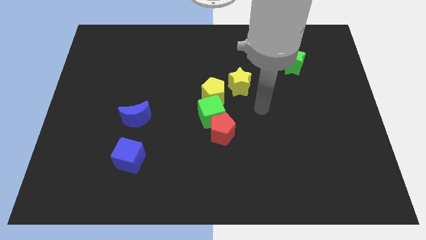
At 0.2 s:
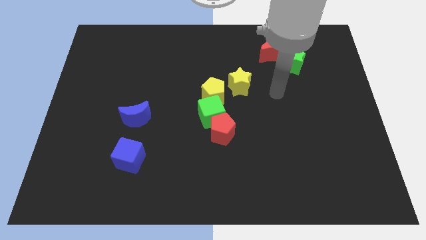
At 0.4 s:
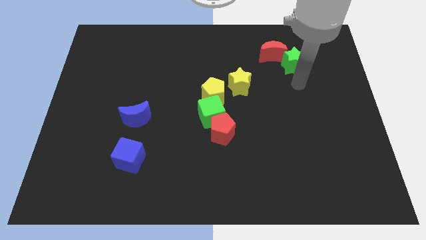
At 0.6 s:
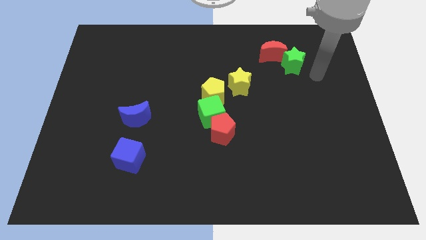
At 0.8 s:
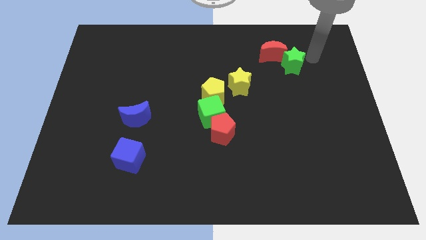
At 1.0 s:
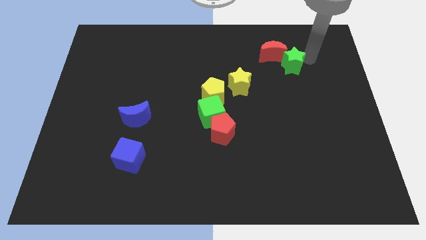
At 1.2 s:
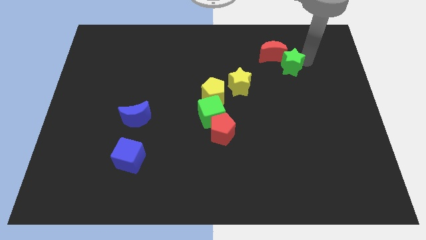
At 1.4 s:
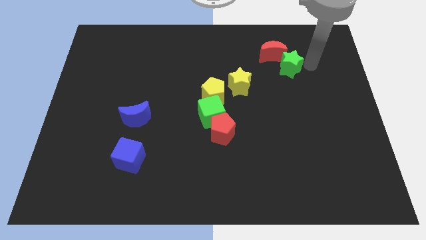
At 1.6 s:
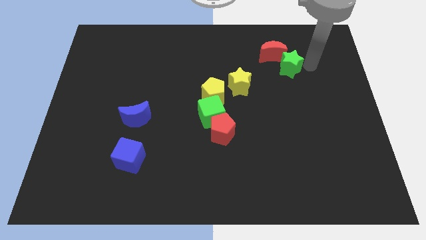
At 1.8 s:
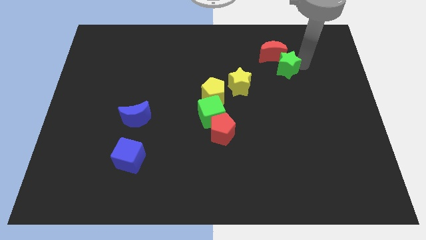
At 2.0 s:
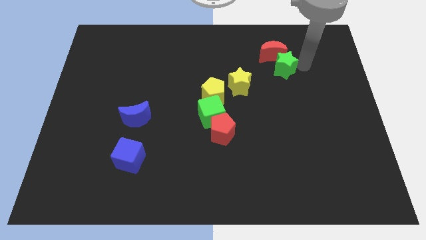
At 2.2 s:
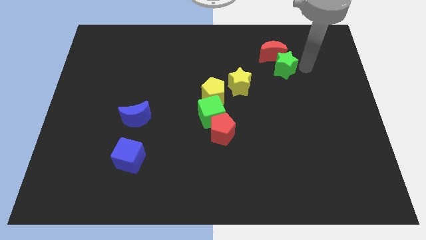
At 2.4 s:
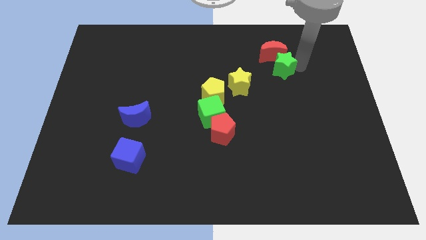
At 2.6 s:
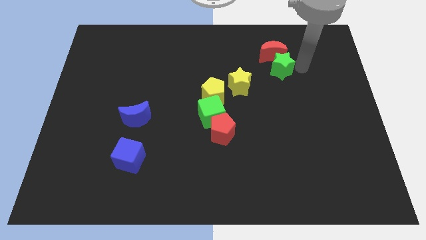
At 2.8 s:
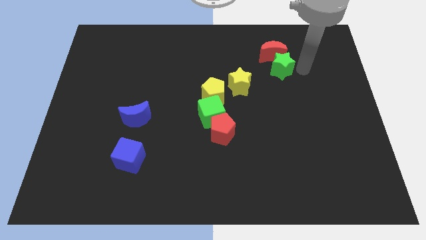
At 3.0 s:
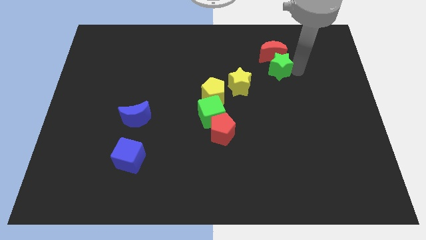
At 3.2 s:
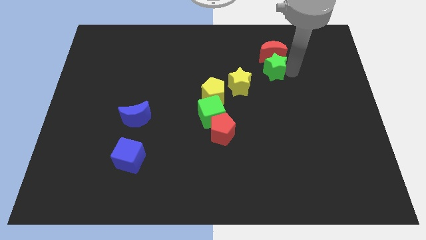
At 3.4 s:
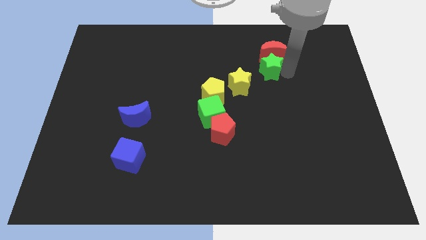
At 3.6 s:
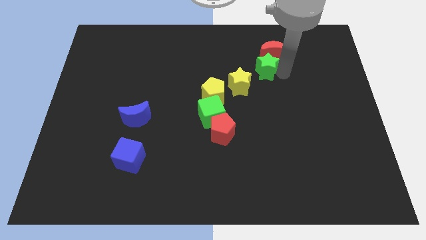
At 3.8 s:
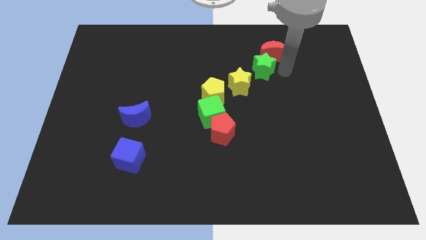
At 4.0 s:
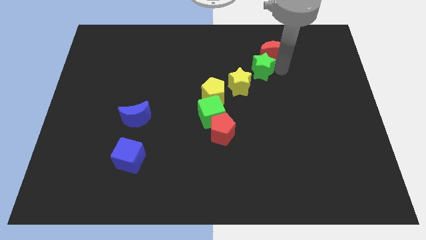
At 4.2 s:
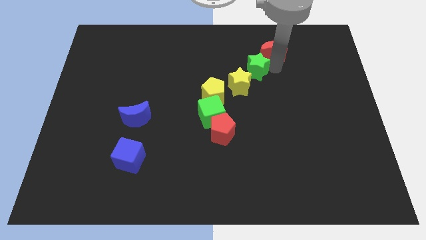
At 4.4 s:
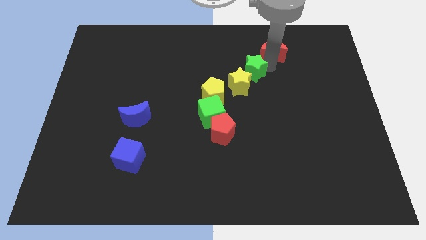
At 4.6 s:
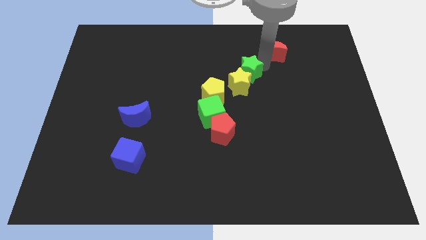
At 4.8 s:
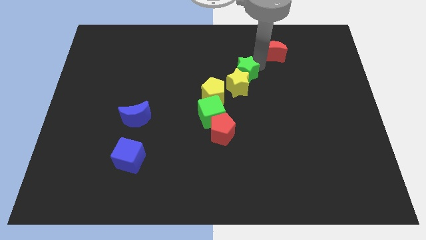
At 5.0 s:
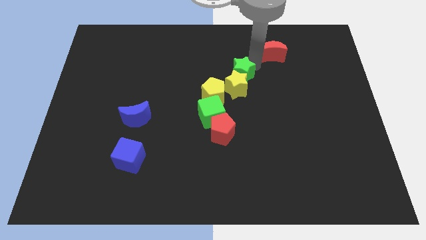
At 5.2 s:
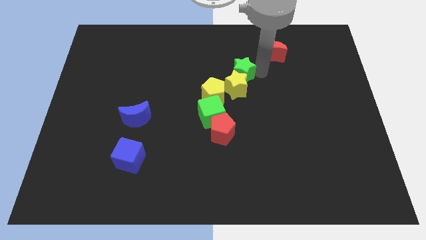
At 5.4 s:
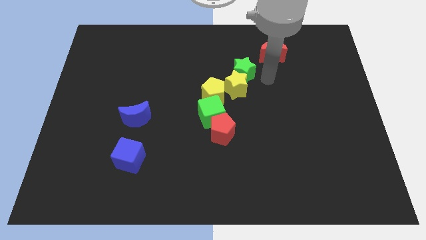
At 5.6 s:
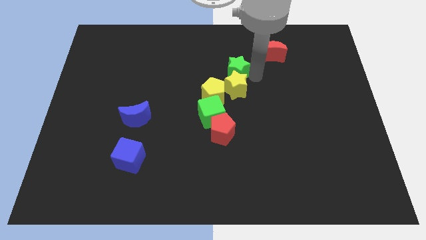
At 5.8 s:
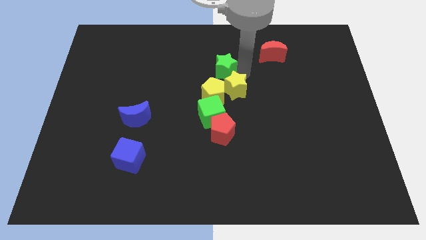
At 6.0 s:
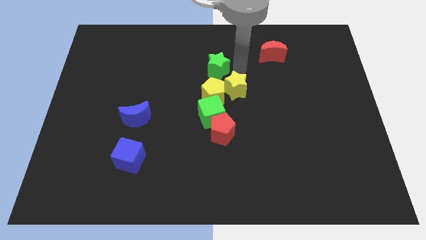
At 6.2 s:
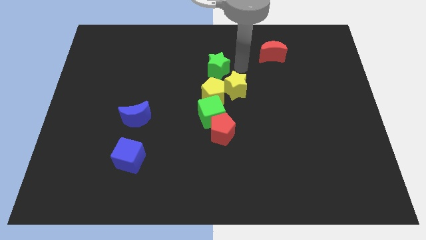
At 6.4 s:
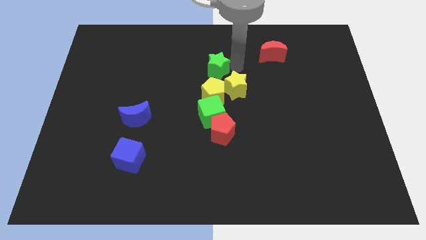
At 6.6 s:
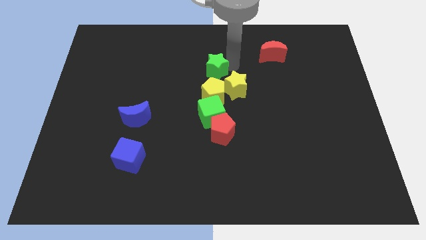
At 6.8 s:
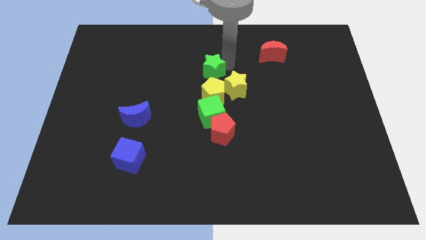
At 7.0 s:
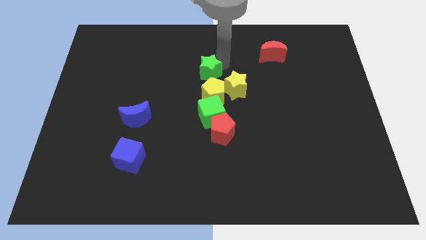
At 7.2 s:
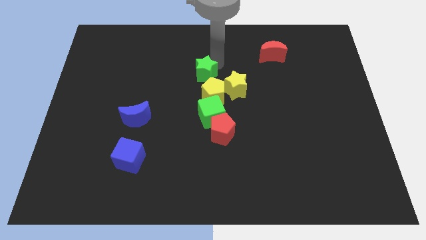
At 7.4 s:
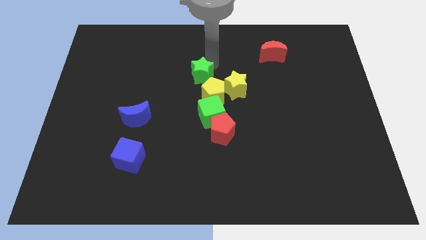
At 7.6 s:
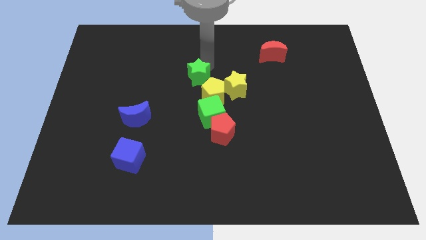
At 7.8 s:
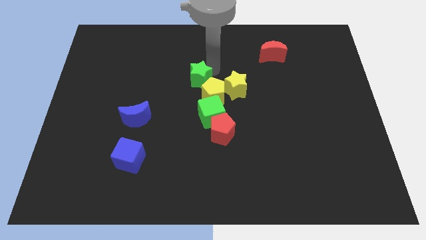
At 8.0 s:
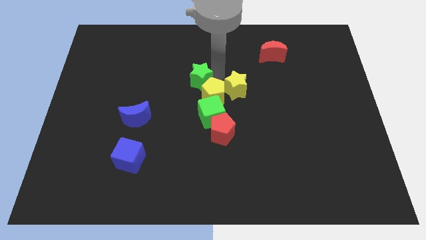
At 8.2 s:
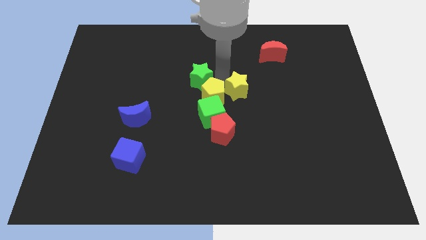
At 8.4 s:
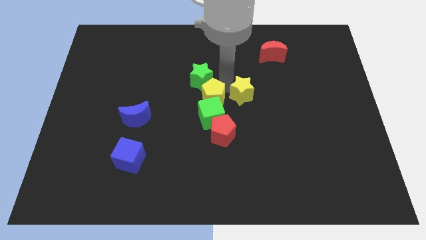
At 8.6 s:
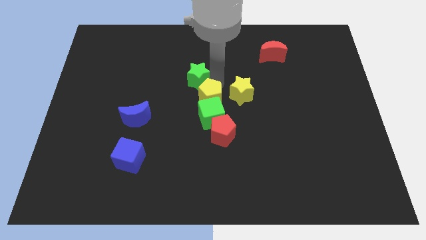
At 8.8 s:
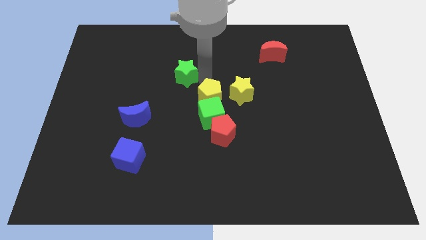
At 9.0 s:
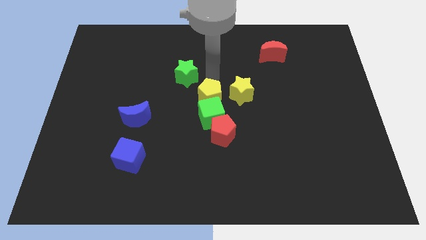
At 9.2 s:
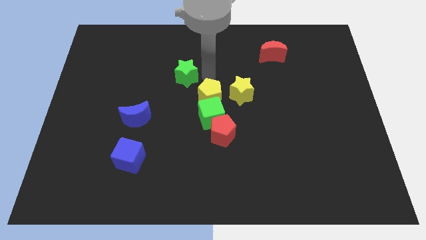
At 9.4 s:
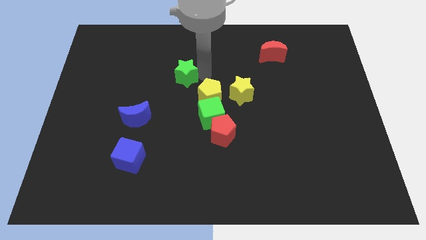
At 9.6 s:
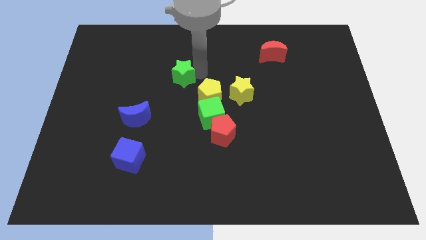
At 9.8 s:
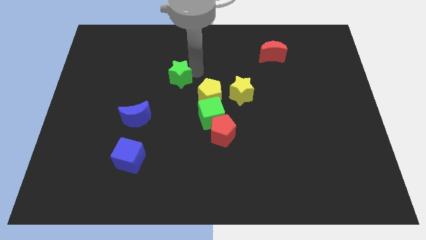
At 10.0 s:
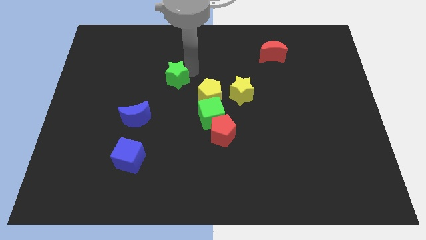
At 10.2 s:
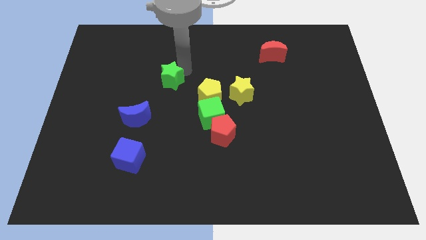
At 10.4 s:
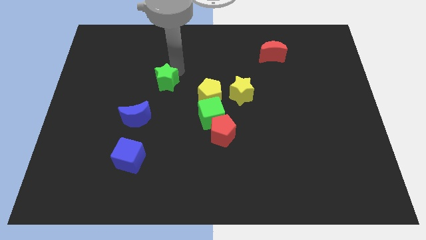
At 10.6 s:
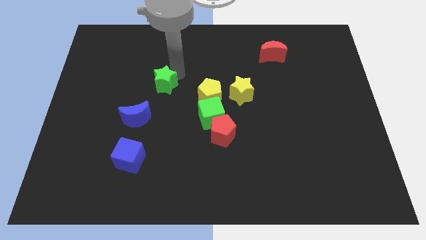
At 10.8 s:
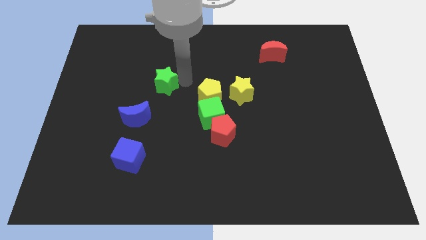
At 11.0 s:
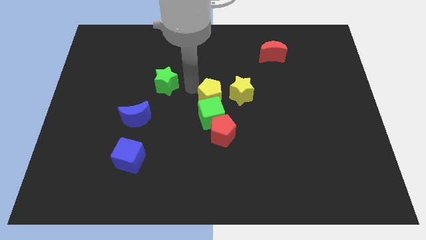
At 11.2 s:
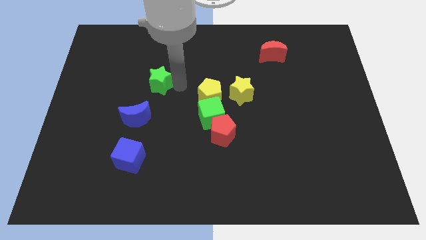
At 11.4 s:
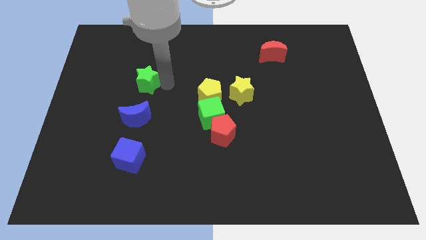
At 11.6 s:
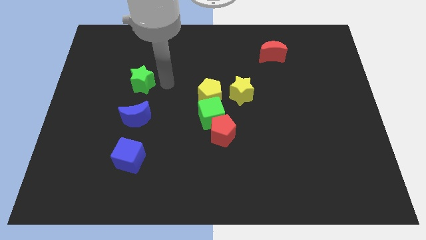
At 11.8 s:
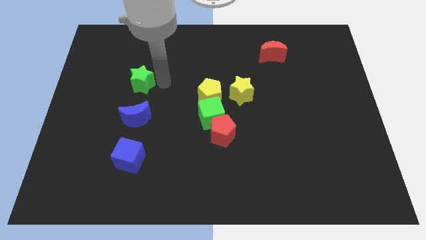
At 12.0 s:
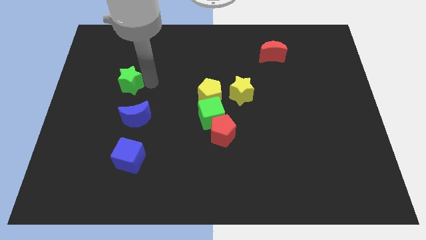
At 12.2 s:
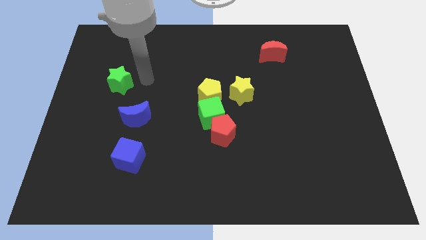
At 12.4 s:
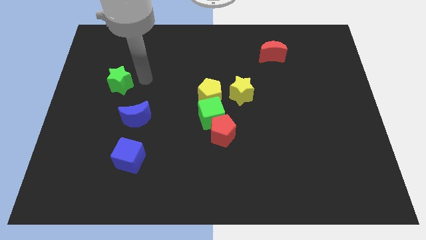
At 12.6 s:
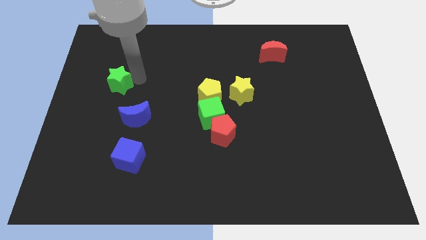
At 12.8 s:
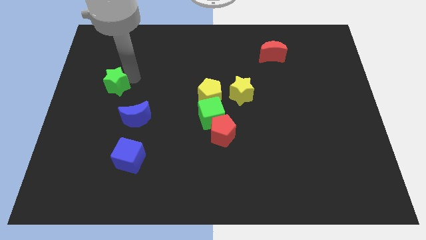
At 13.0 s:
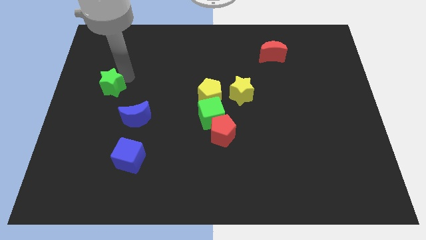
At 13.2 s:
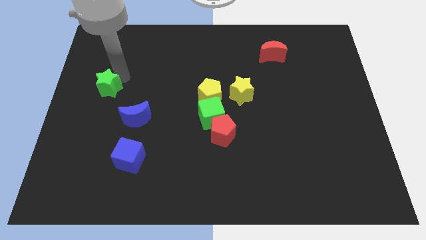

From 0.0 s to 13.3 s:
put the green star to the left side of the board
